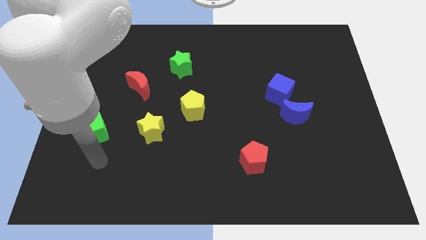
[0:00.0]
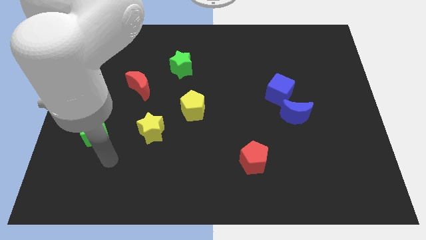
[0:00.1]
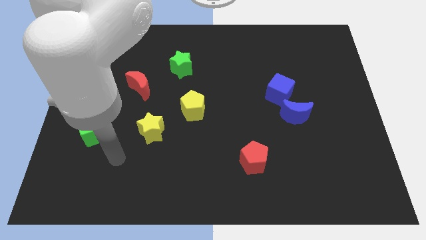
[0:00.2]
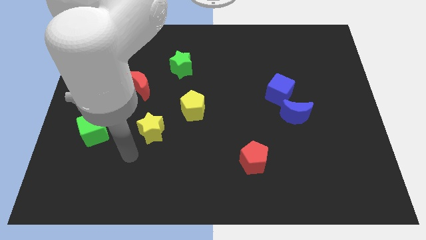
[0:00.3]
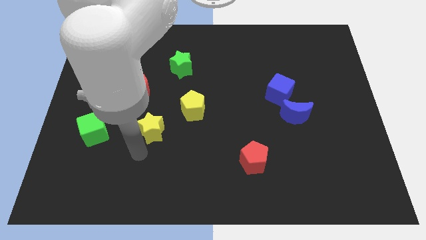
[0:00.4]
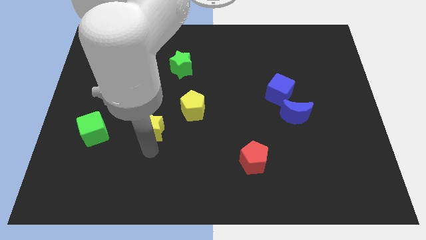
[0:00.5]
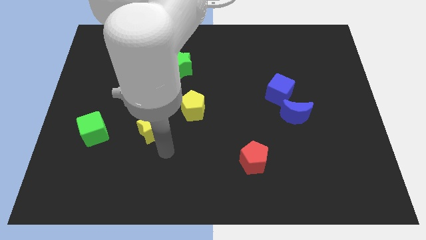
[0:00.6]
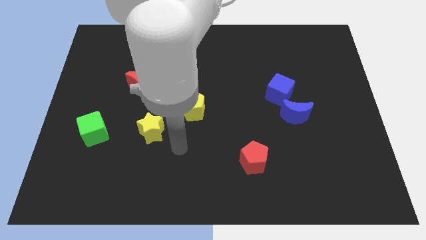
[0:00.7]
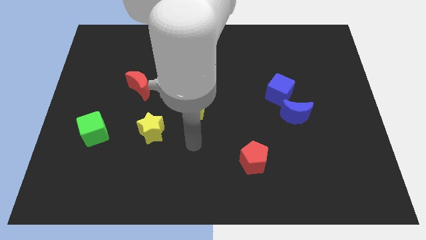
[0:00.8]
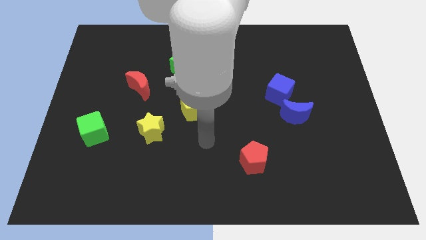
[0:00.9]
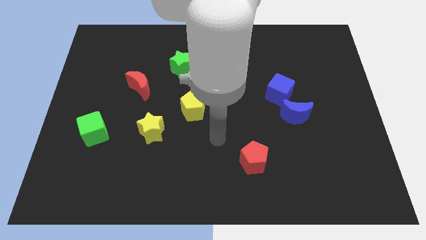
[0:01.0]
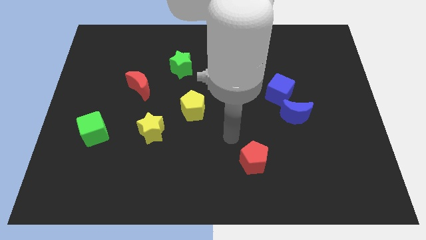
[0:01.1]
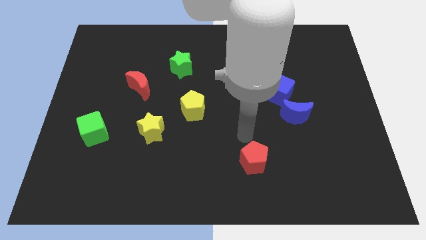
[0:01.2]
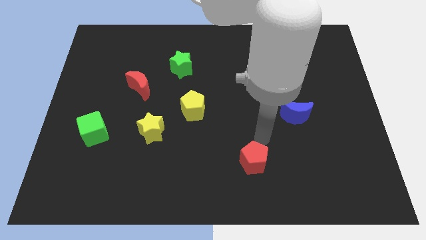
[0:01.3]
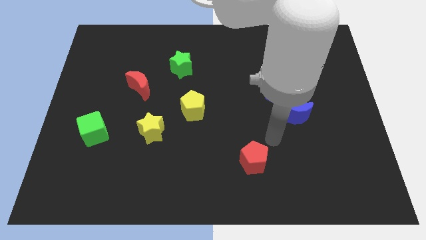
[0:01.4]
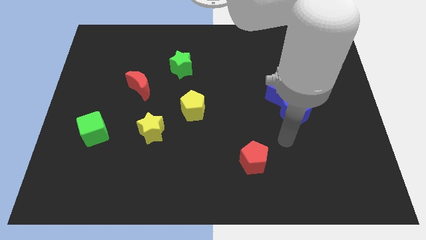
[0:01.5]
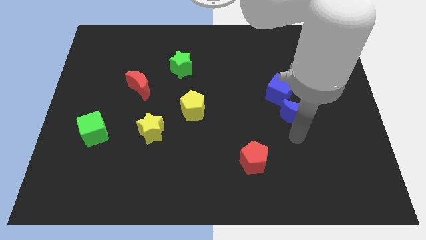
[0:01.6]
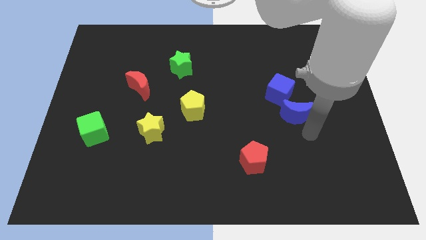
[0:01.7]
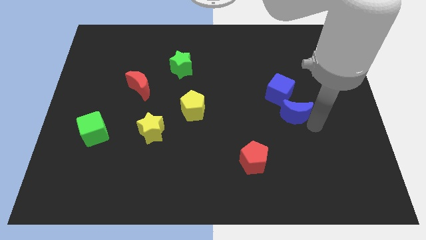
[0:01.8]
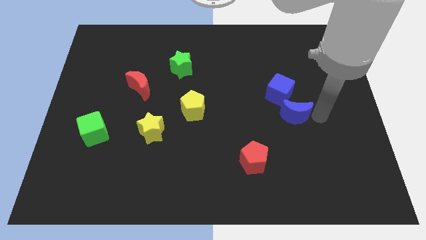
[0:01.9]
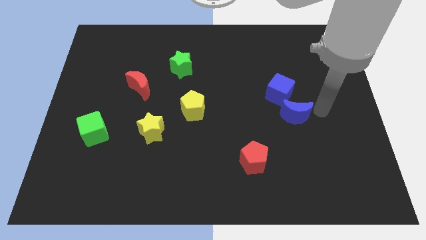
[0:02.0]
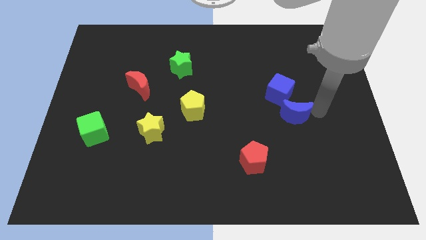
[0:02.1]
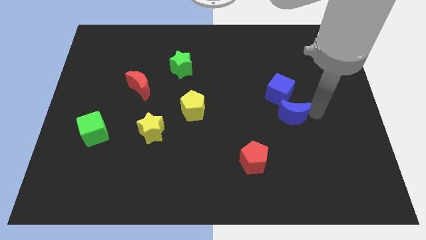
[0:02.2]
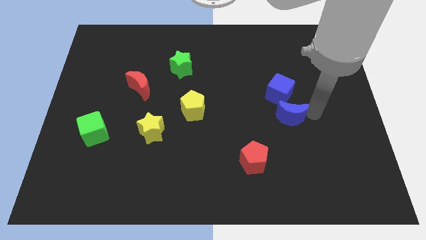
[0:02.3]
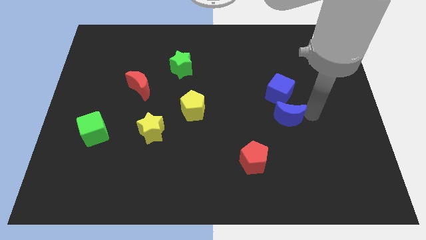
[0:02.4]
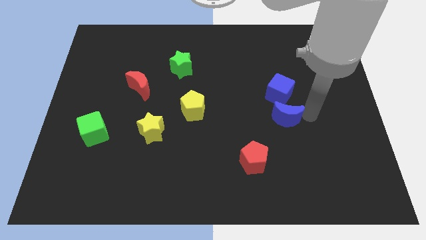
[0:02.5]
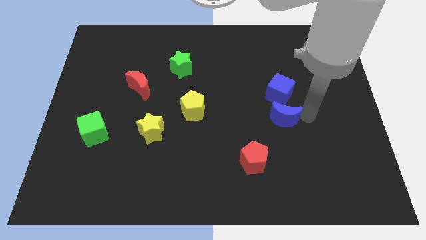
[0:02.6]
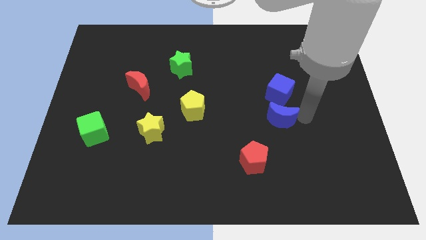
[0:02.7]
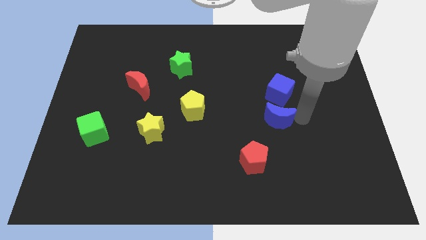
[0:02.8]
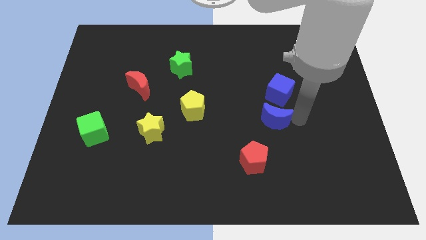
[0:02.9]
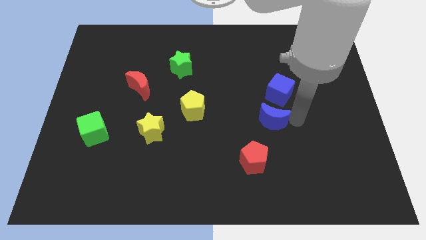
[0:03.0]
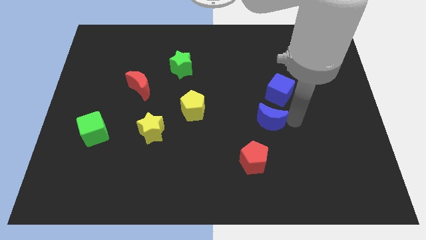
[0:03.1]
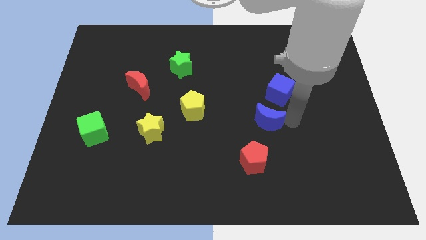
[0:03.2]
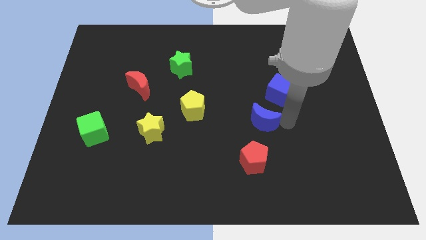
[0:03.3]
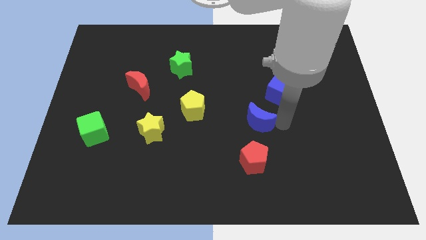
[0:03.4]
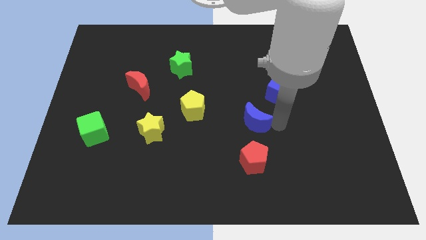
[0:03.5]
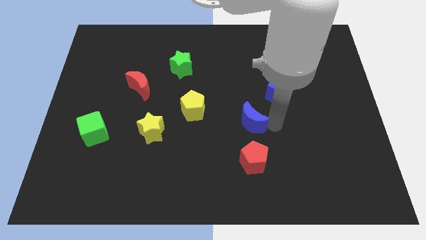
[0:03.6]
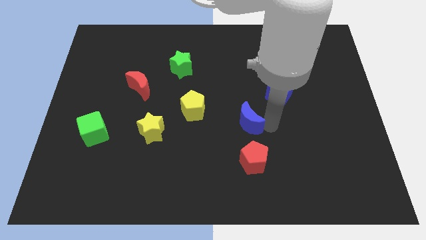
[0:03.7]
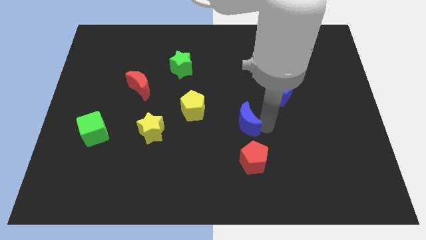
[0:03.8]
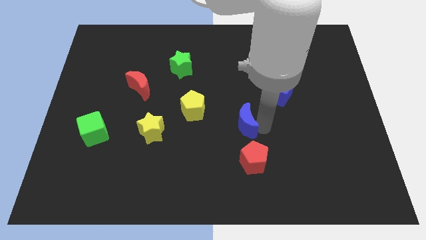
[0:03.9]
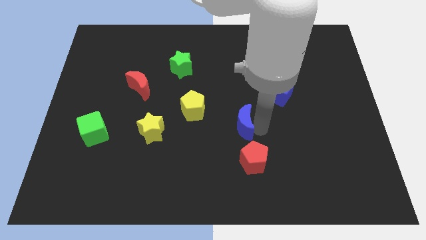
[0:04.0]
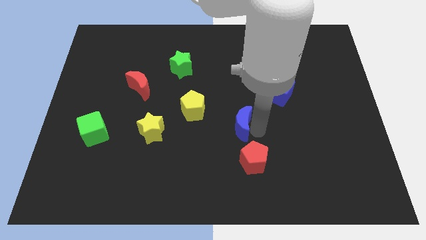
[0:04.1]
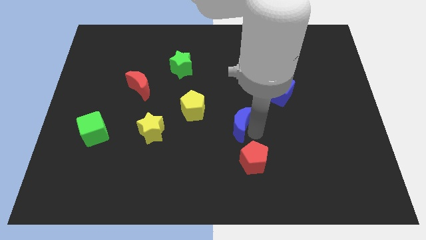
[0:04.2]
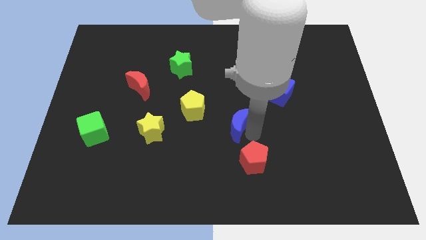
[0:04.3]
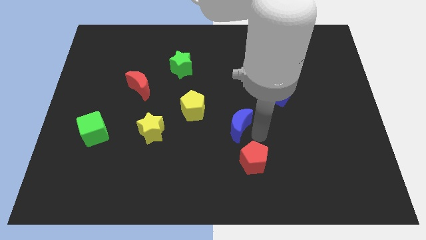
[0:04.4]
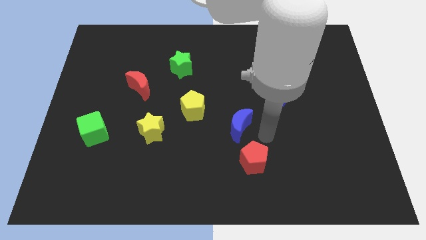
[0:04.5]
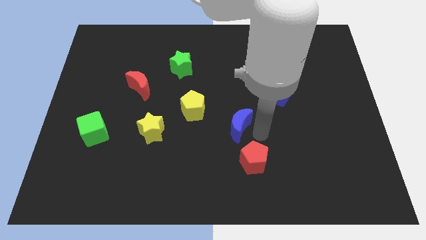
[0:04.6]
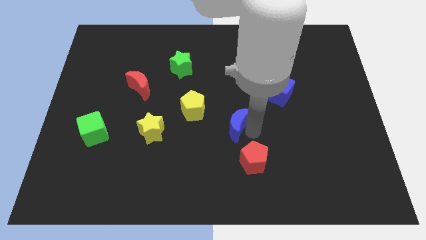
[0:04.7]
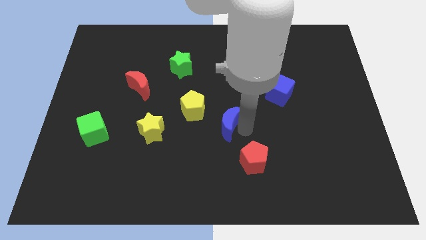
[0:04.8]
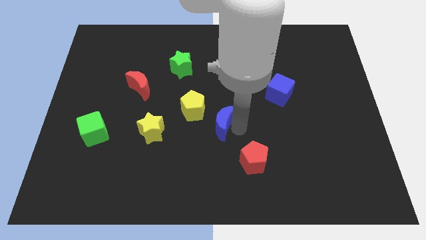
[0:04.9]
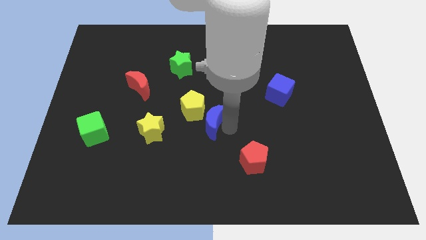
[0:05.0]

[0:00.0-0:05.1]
slide the blue moon to the yellow pentagon
